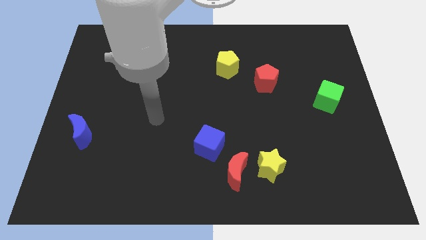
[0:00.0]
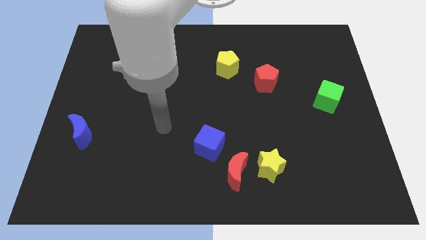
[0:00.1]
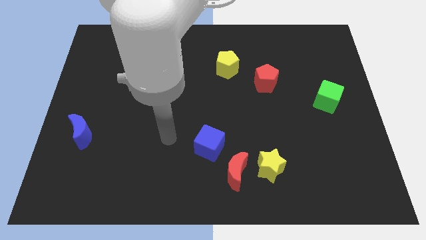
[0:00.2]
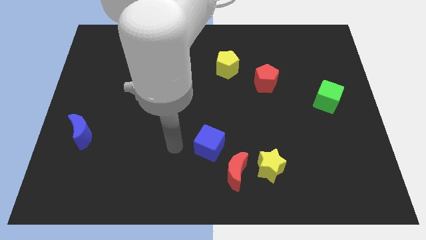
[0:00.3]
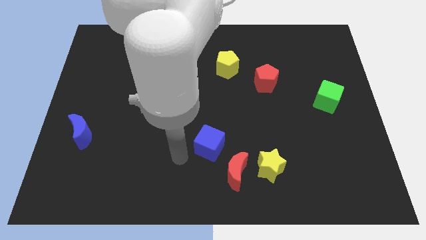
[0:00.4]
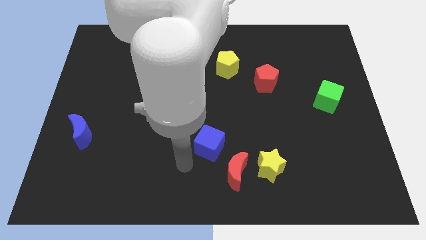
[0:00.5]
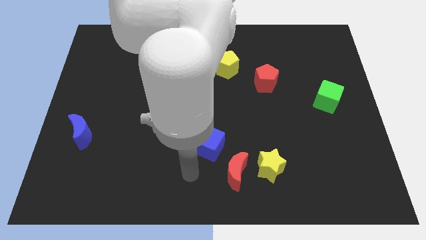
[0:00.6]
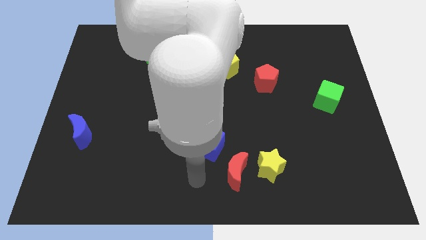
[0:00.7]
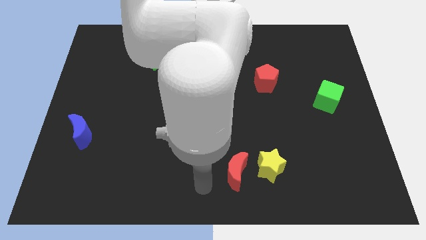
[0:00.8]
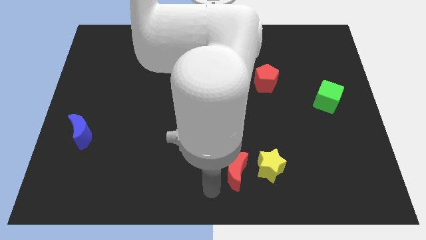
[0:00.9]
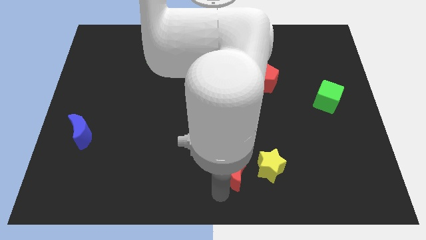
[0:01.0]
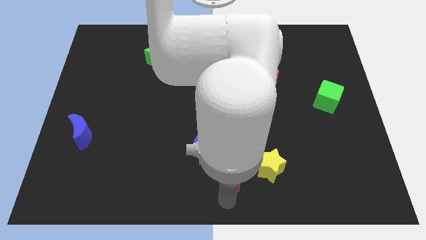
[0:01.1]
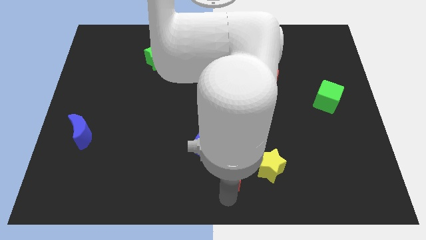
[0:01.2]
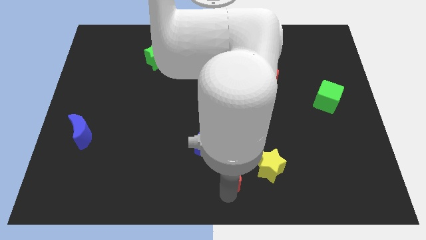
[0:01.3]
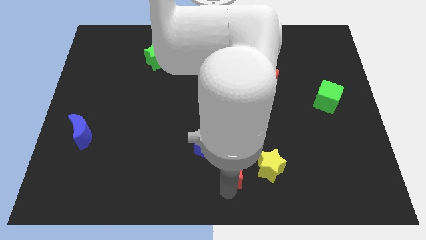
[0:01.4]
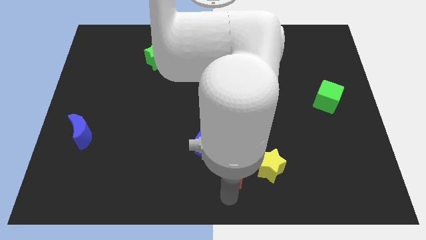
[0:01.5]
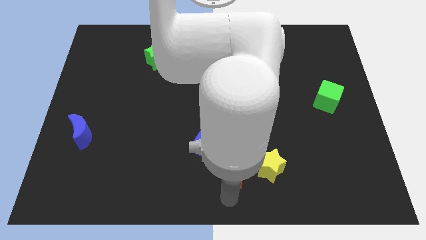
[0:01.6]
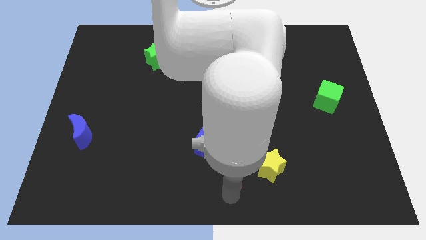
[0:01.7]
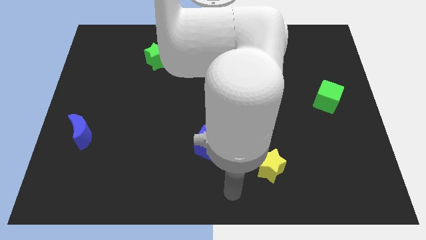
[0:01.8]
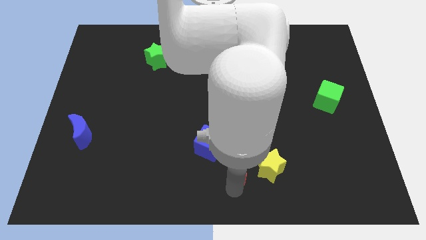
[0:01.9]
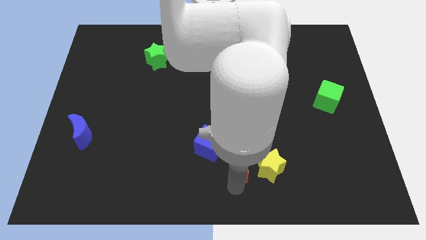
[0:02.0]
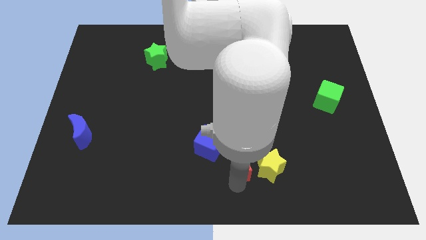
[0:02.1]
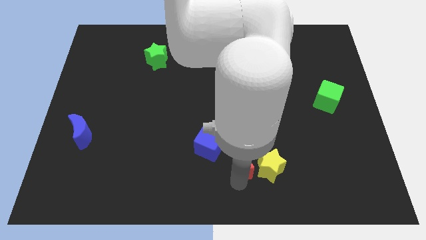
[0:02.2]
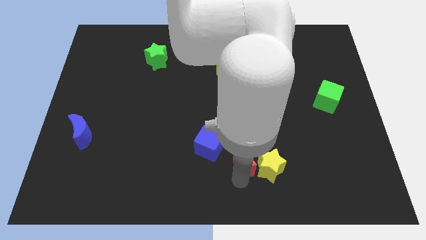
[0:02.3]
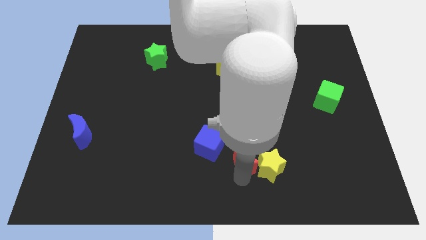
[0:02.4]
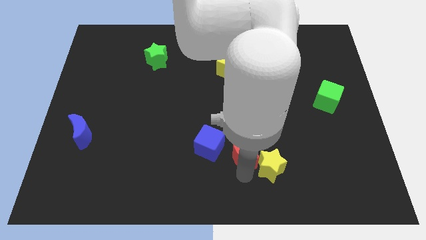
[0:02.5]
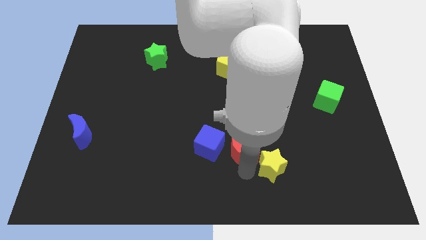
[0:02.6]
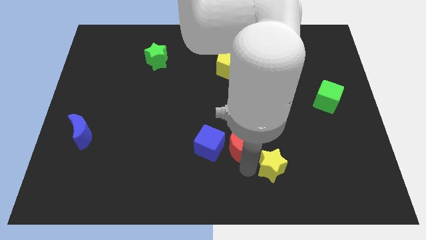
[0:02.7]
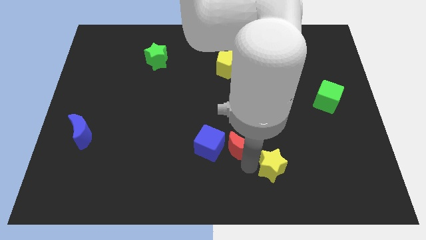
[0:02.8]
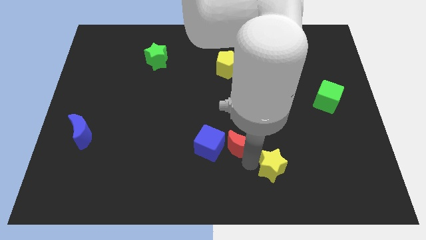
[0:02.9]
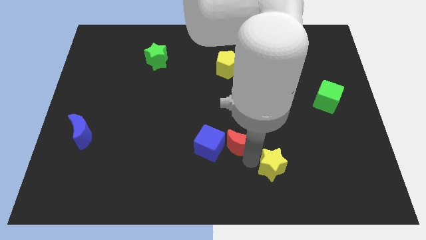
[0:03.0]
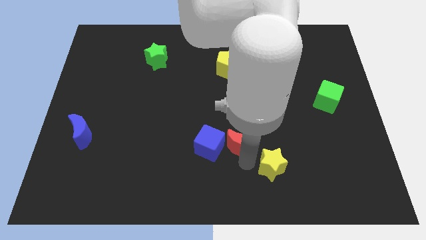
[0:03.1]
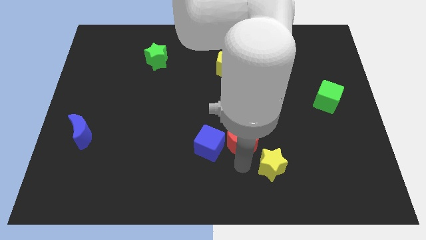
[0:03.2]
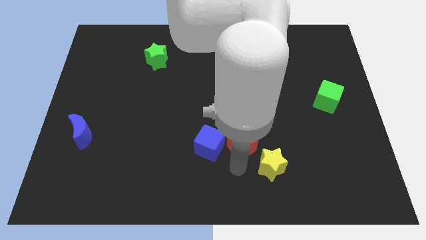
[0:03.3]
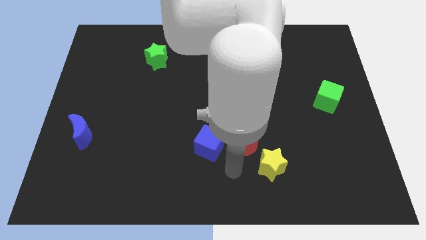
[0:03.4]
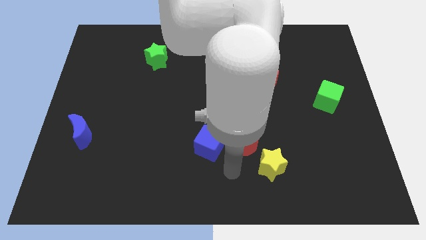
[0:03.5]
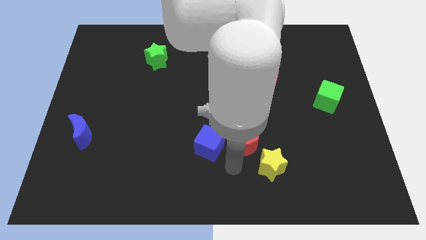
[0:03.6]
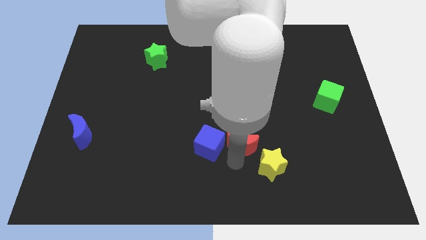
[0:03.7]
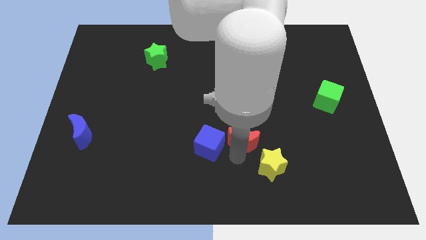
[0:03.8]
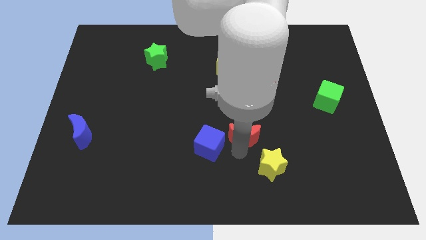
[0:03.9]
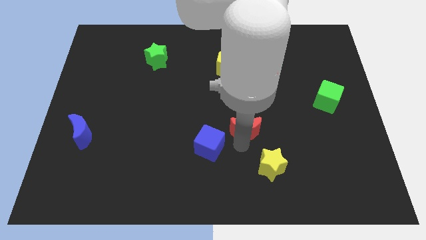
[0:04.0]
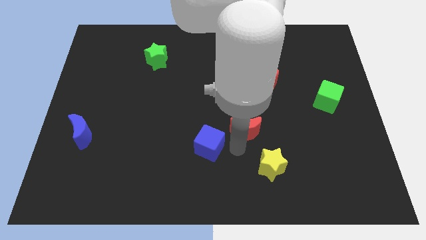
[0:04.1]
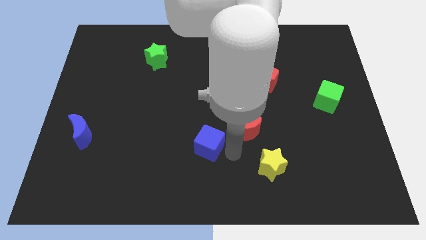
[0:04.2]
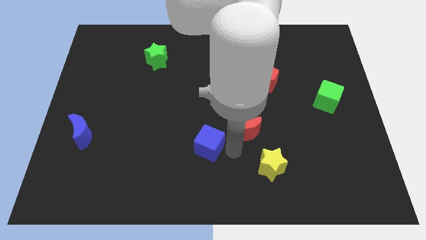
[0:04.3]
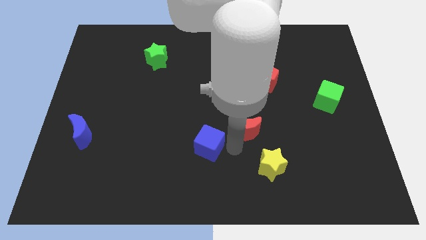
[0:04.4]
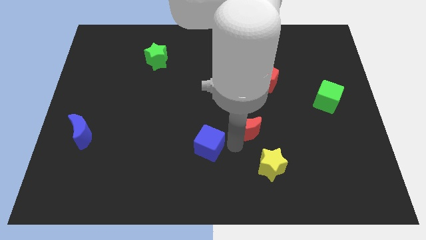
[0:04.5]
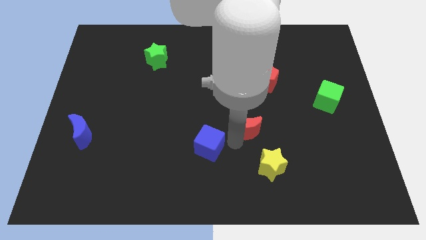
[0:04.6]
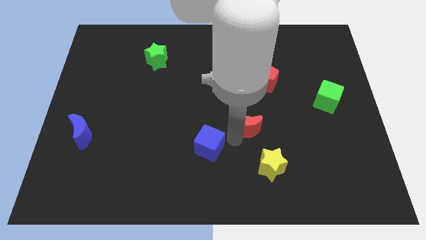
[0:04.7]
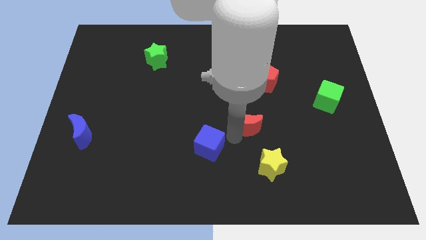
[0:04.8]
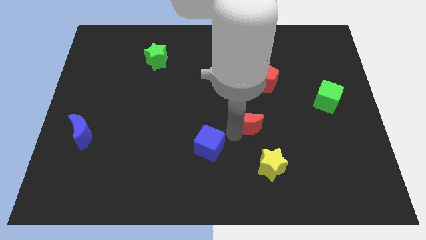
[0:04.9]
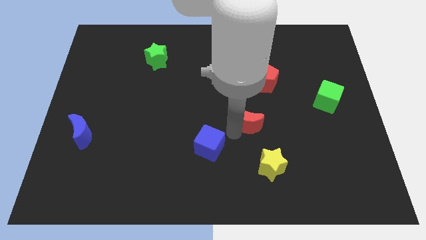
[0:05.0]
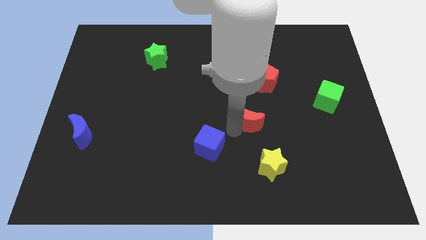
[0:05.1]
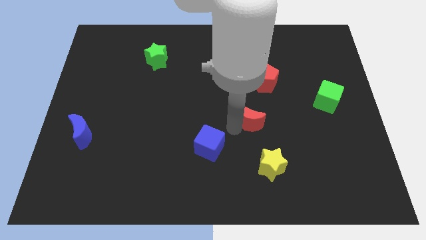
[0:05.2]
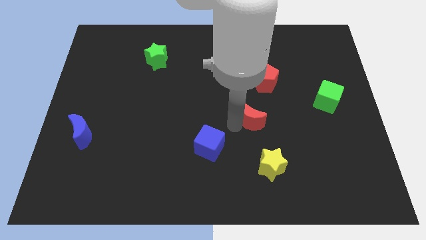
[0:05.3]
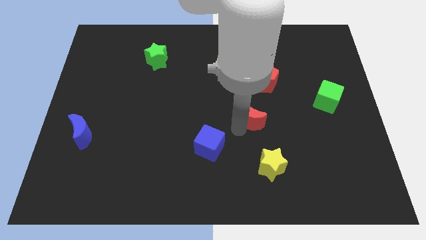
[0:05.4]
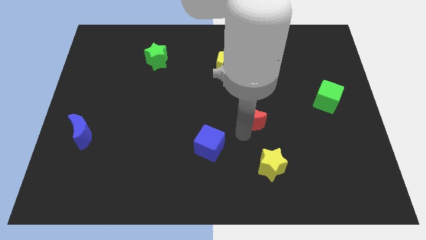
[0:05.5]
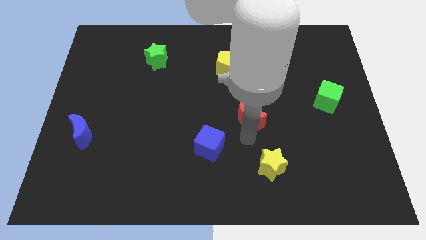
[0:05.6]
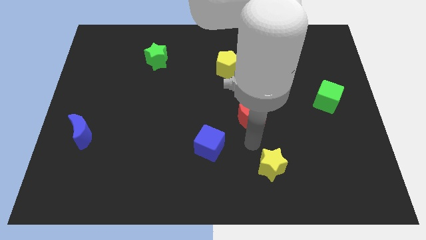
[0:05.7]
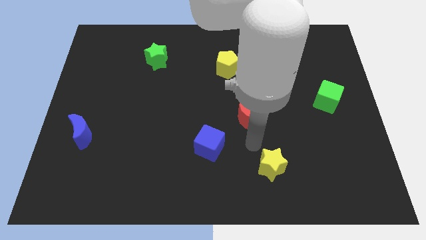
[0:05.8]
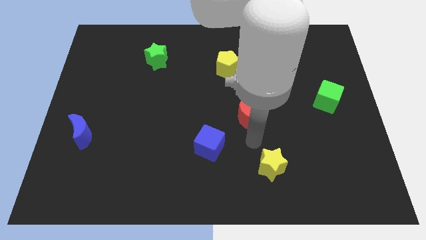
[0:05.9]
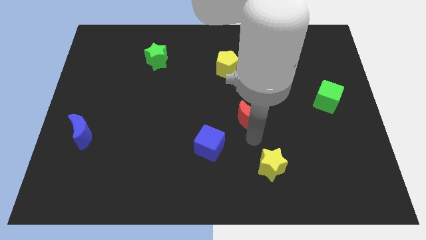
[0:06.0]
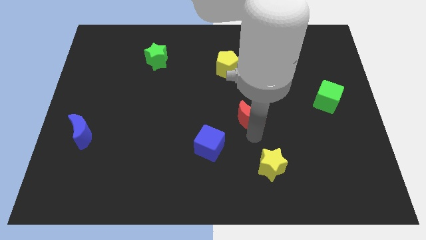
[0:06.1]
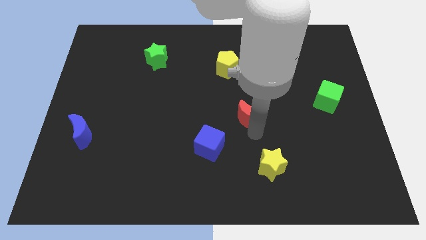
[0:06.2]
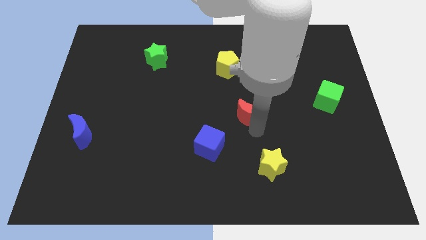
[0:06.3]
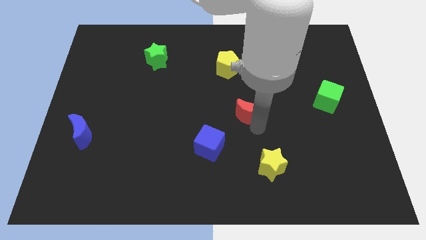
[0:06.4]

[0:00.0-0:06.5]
put the red moon to the bottom left side of the red pentagon

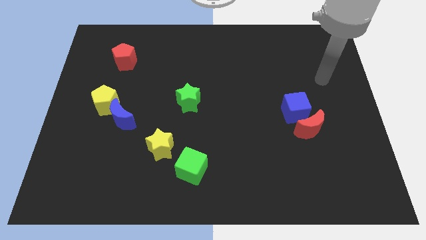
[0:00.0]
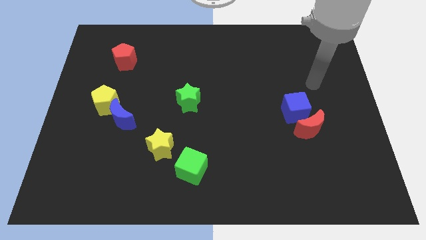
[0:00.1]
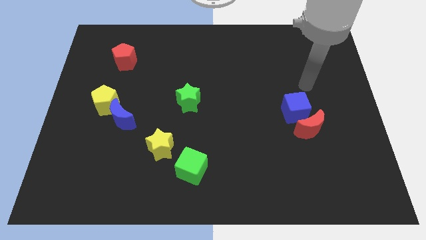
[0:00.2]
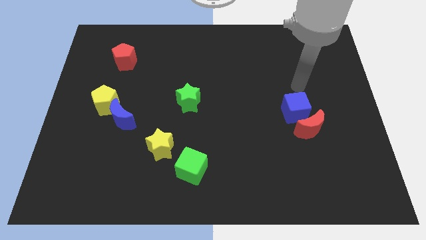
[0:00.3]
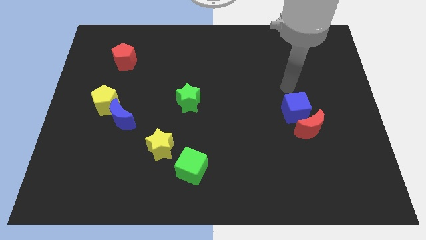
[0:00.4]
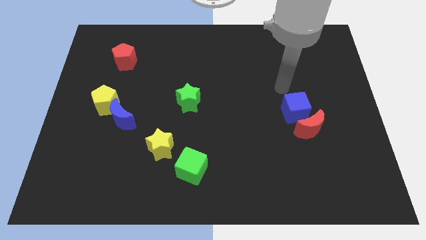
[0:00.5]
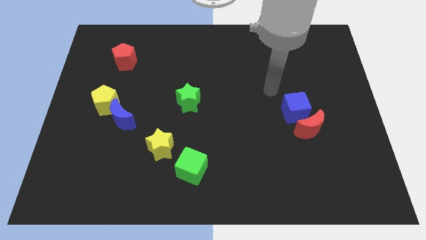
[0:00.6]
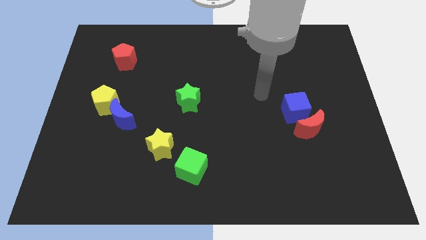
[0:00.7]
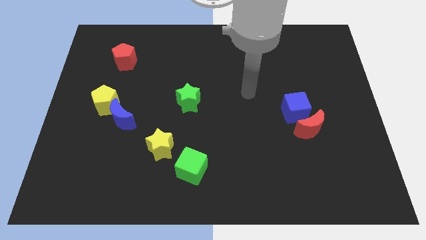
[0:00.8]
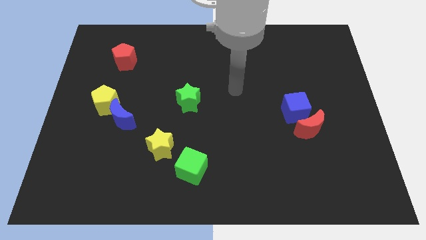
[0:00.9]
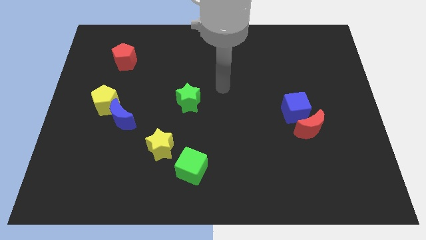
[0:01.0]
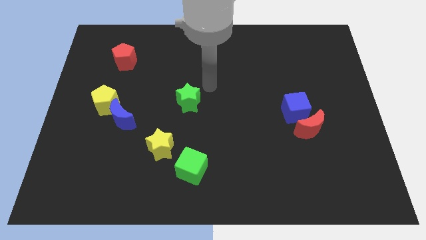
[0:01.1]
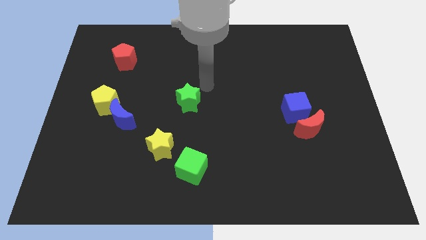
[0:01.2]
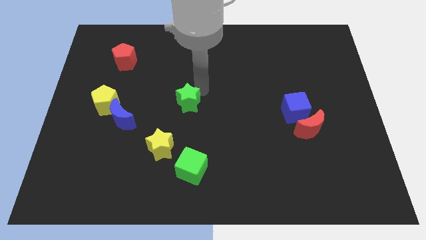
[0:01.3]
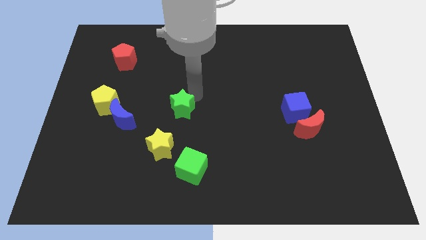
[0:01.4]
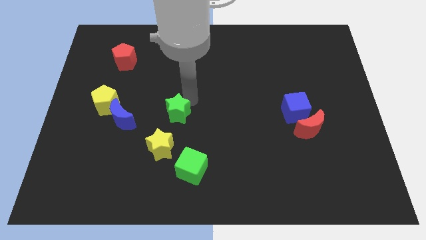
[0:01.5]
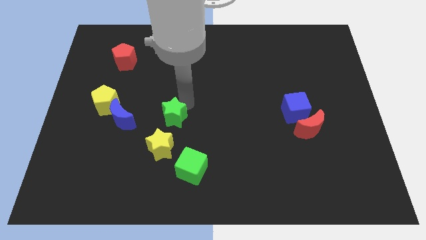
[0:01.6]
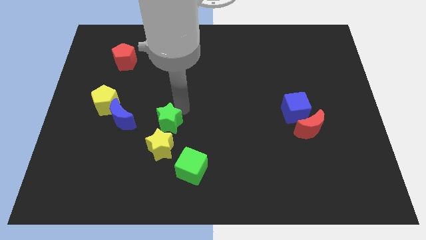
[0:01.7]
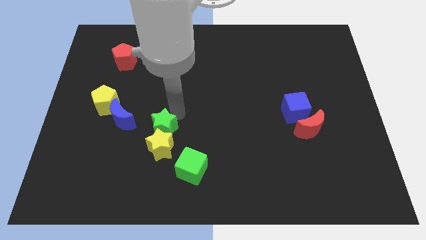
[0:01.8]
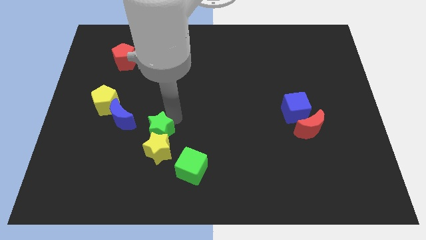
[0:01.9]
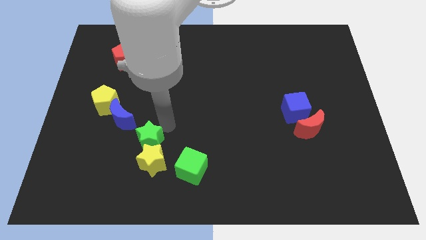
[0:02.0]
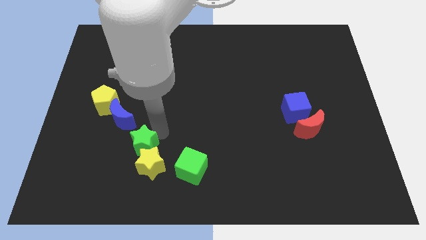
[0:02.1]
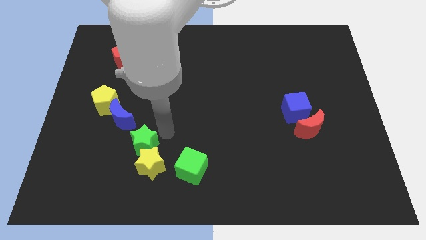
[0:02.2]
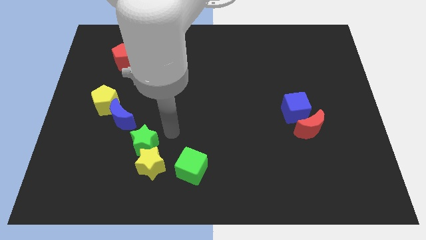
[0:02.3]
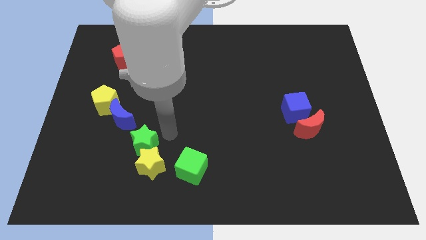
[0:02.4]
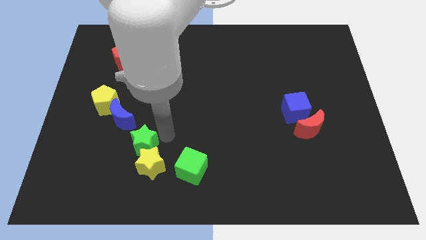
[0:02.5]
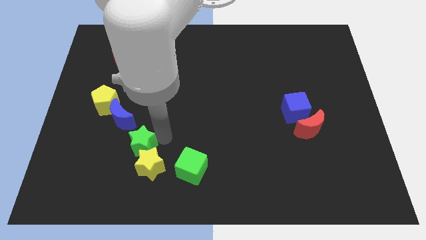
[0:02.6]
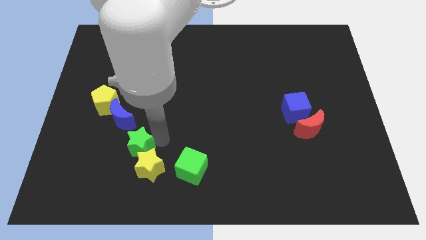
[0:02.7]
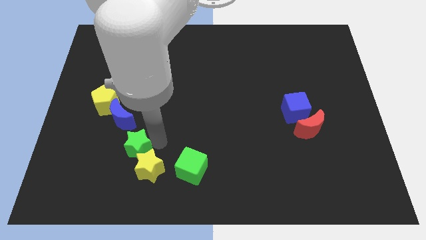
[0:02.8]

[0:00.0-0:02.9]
slide the green star below the blue moon
